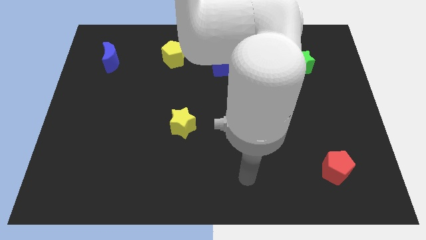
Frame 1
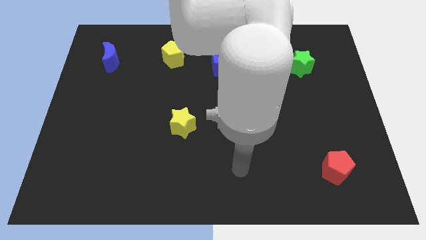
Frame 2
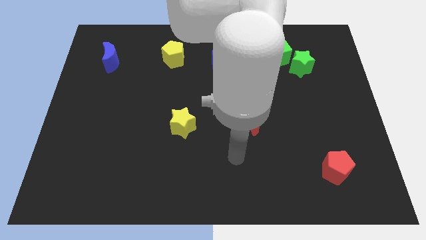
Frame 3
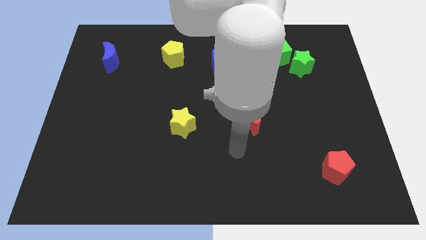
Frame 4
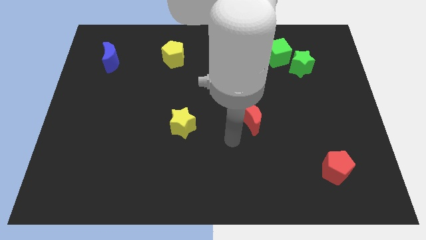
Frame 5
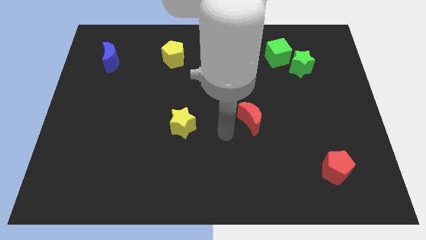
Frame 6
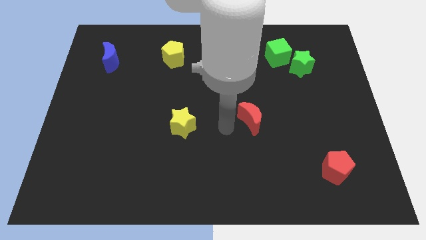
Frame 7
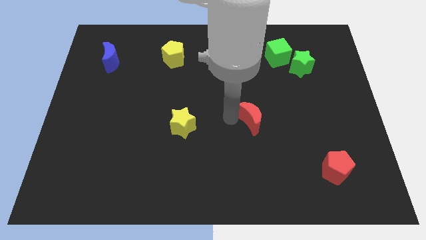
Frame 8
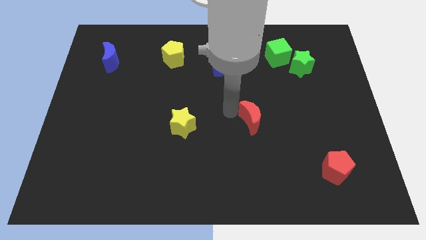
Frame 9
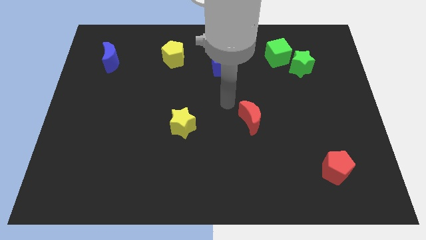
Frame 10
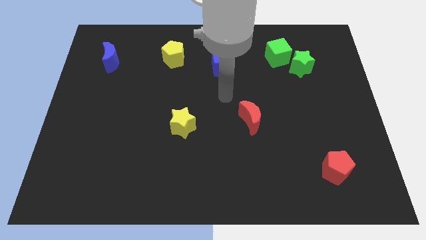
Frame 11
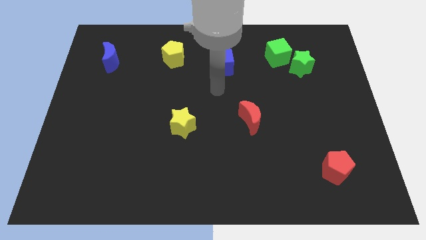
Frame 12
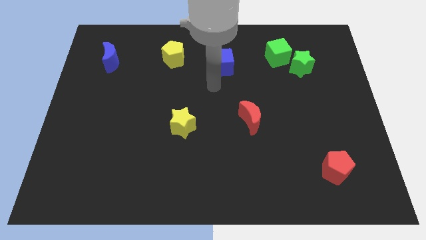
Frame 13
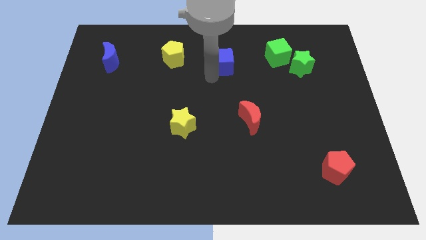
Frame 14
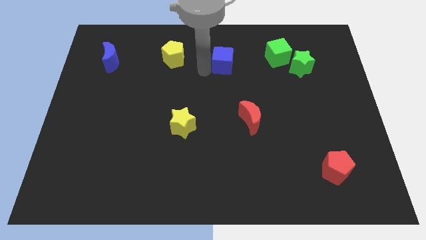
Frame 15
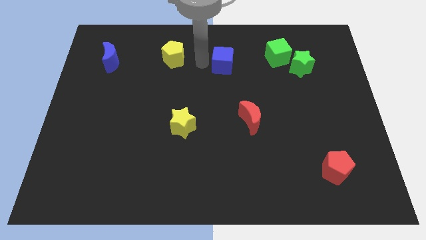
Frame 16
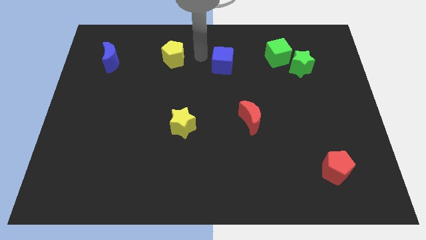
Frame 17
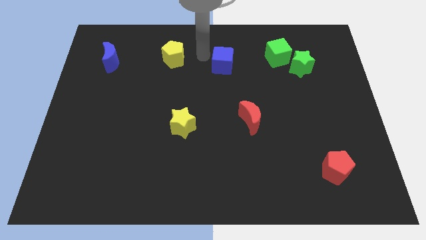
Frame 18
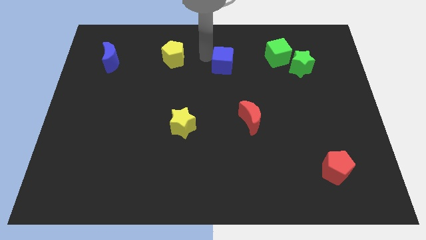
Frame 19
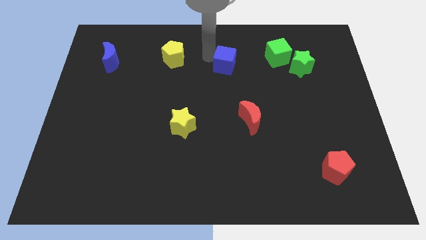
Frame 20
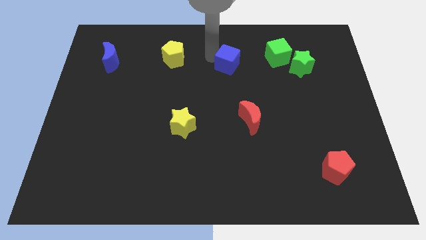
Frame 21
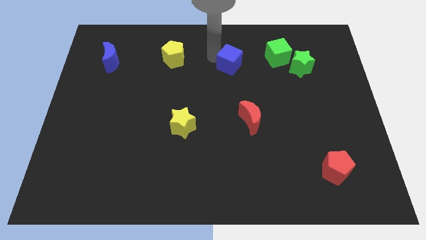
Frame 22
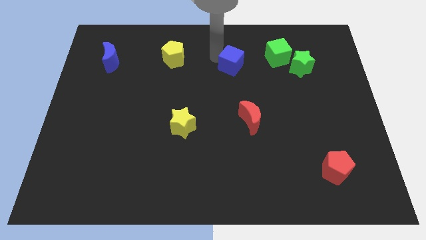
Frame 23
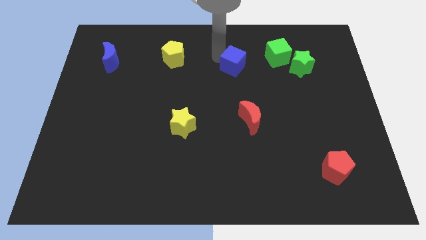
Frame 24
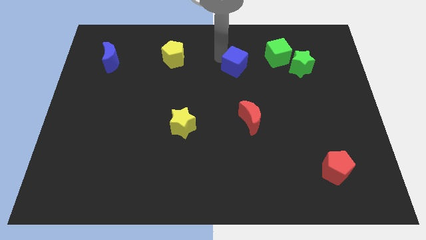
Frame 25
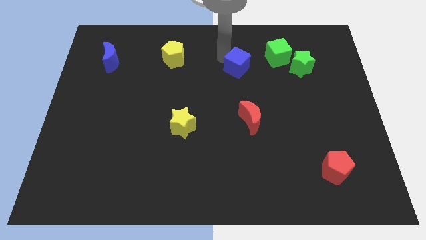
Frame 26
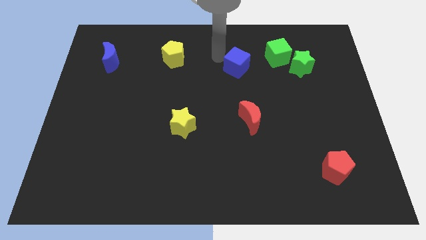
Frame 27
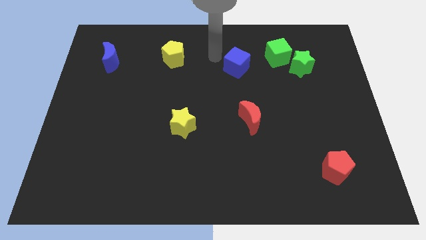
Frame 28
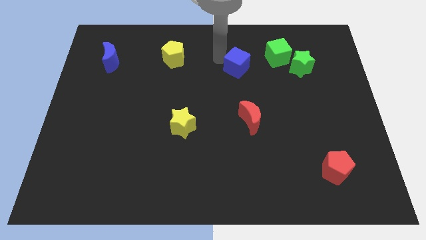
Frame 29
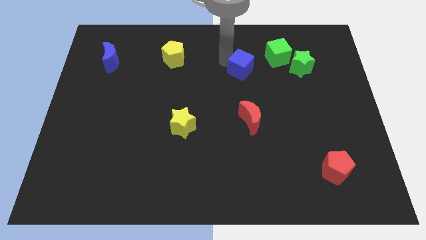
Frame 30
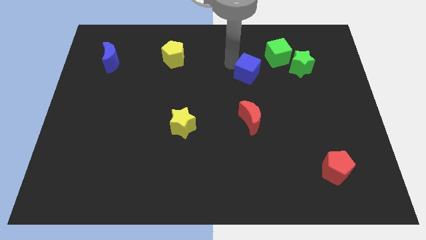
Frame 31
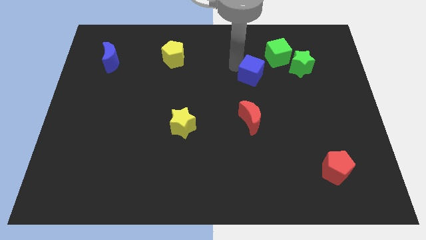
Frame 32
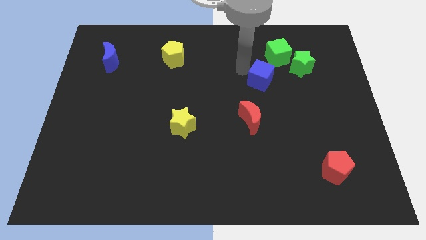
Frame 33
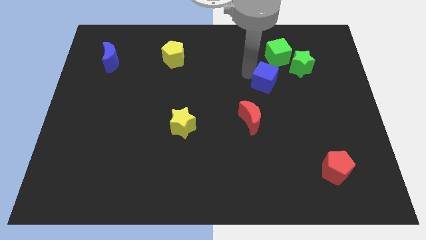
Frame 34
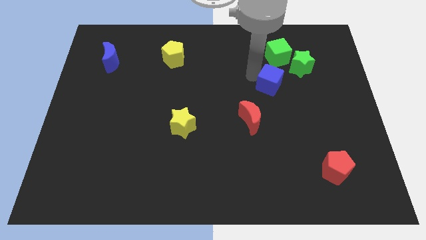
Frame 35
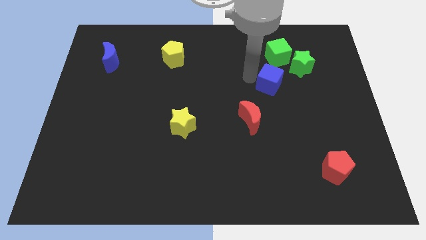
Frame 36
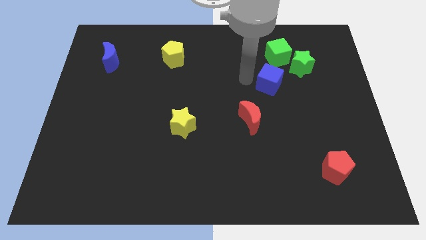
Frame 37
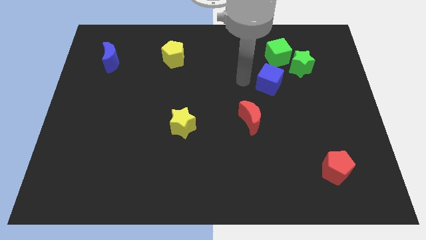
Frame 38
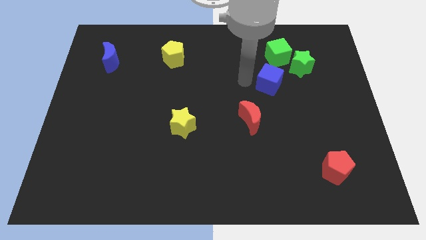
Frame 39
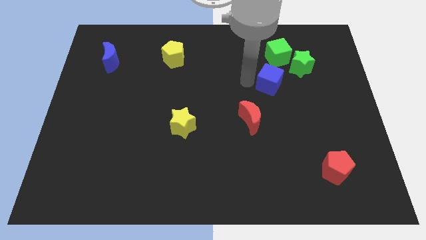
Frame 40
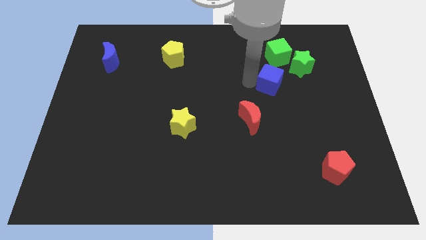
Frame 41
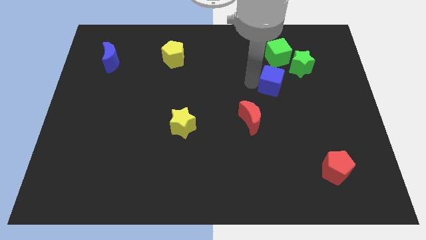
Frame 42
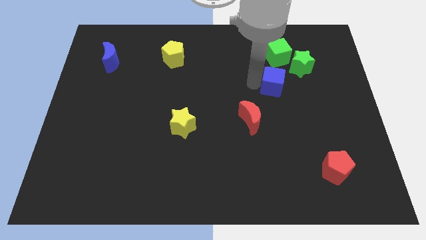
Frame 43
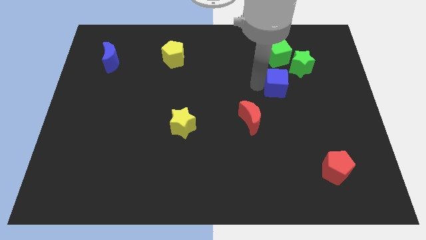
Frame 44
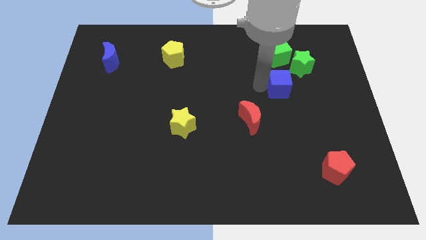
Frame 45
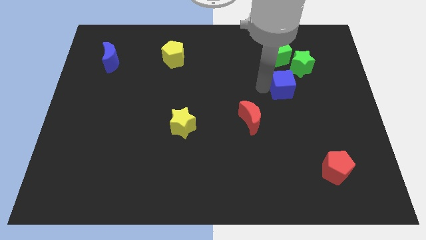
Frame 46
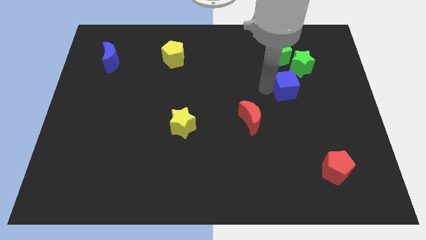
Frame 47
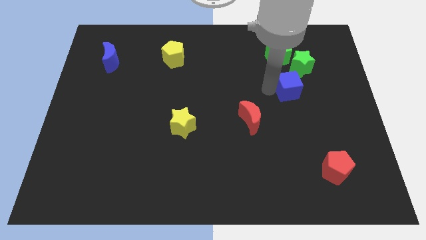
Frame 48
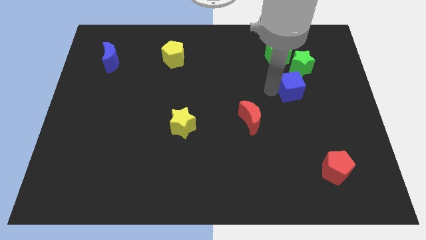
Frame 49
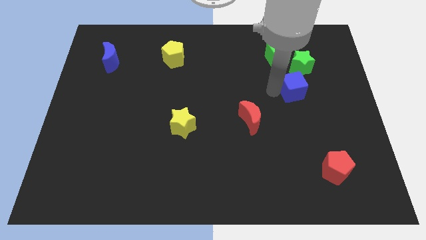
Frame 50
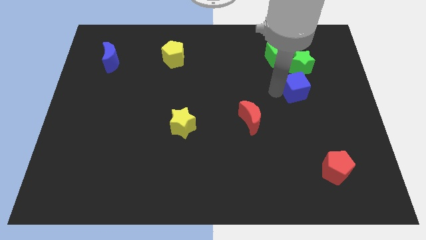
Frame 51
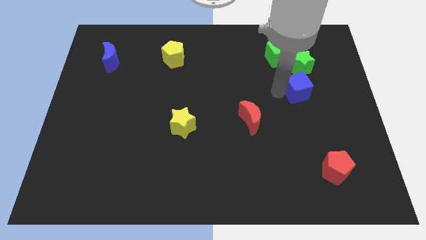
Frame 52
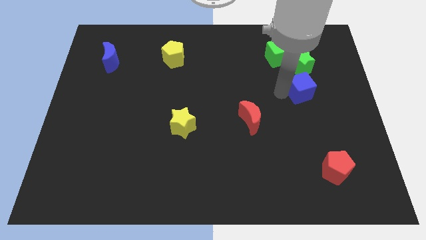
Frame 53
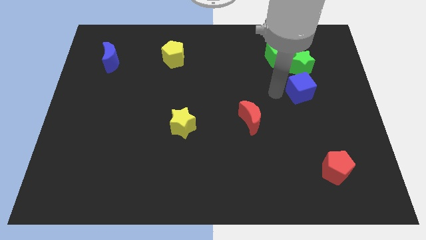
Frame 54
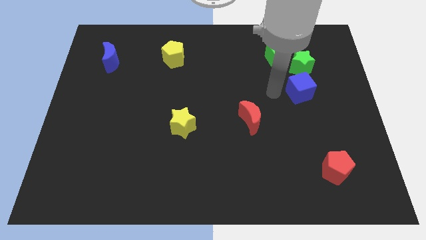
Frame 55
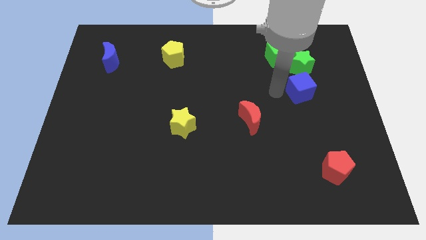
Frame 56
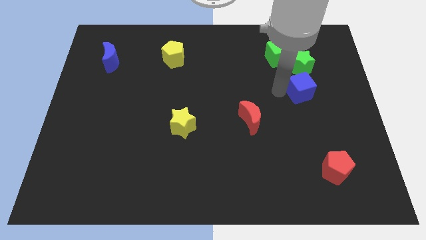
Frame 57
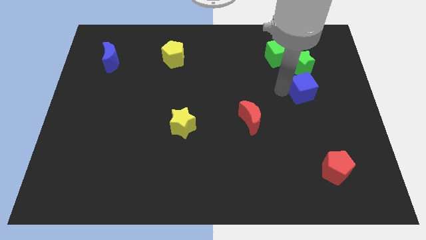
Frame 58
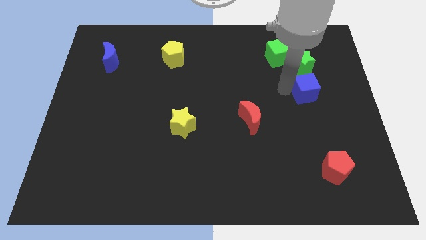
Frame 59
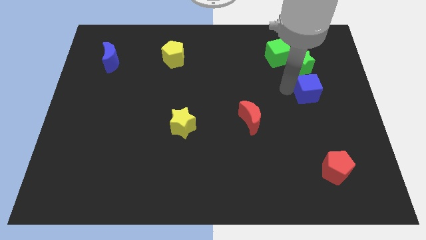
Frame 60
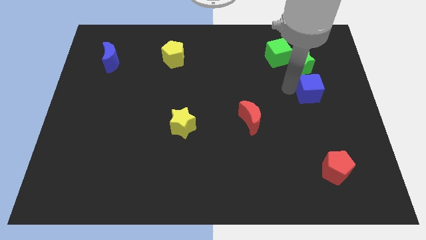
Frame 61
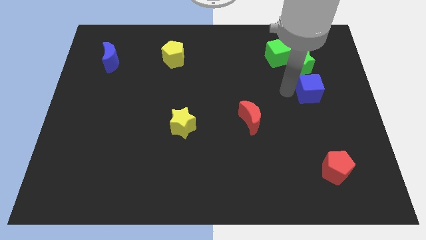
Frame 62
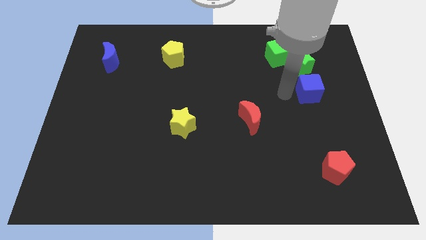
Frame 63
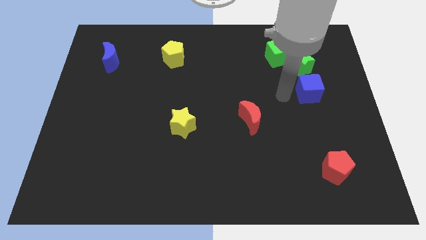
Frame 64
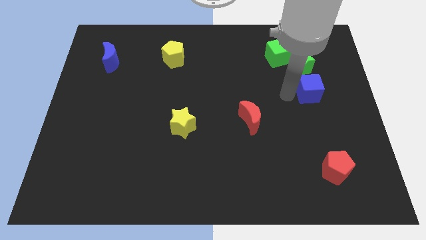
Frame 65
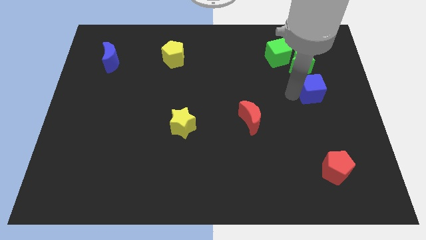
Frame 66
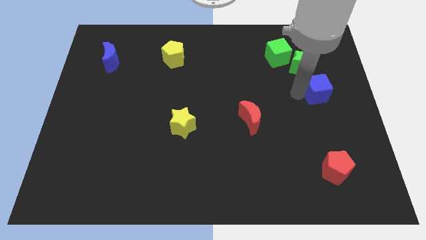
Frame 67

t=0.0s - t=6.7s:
move the blue cube to the center right
